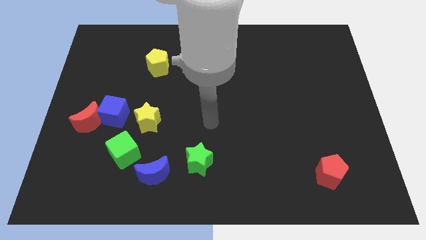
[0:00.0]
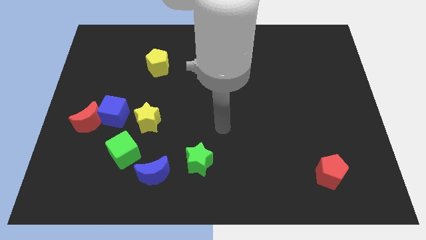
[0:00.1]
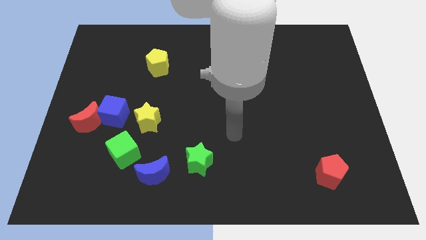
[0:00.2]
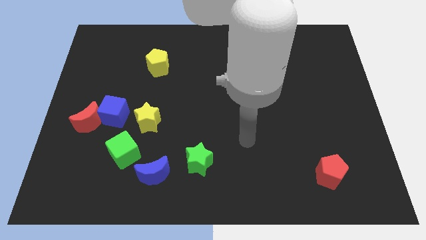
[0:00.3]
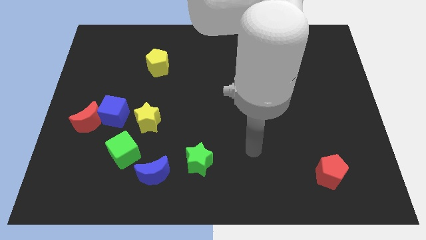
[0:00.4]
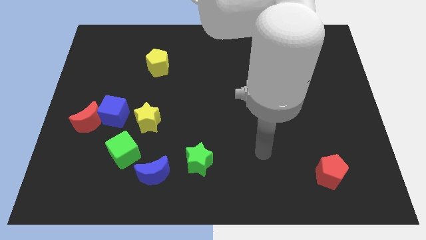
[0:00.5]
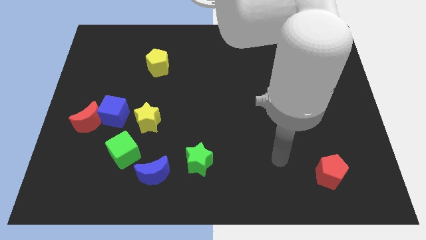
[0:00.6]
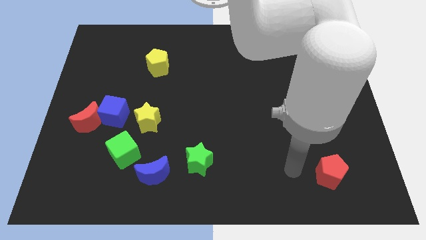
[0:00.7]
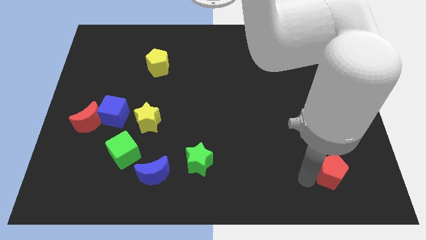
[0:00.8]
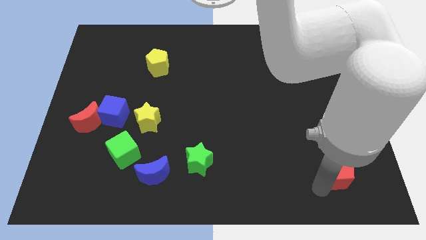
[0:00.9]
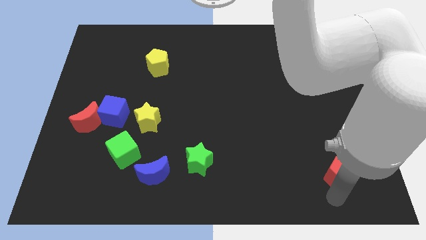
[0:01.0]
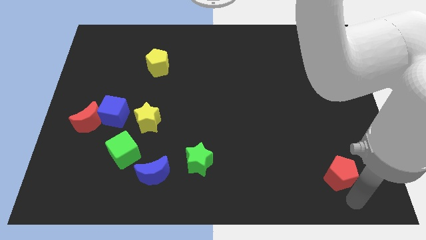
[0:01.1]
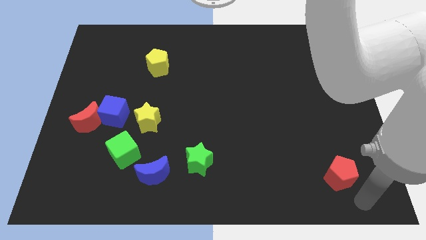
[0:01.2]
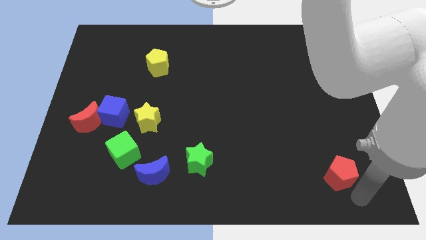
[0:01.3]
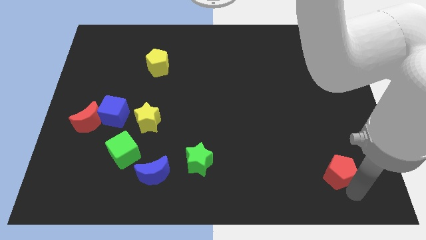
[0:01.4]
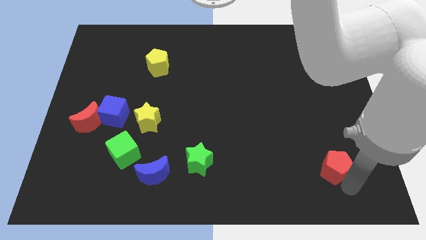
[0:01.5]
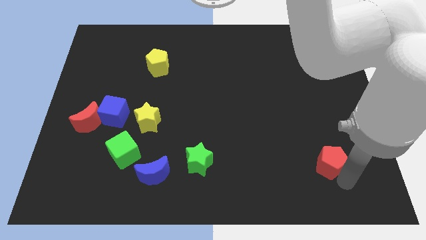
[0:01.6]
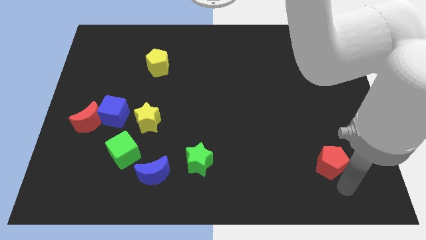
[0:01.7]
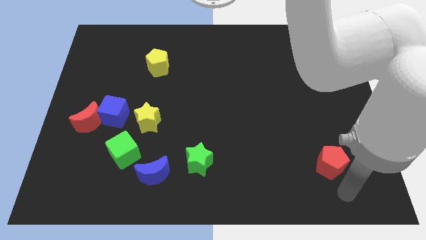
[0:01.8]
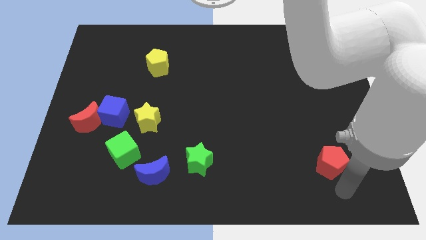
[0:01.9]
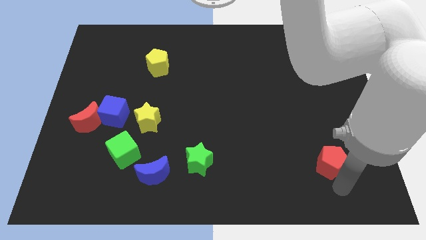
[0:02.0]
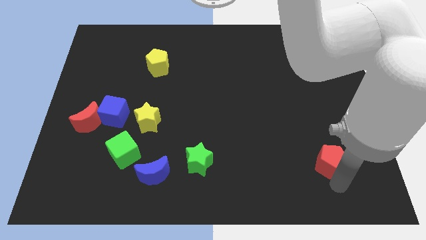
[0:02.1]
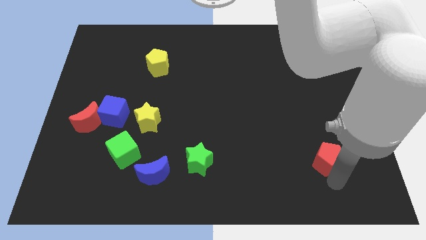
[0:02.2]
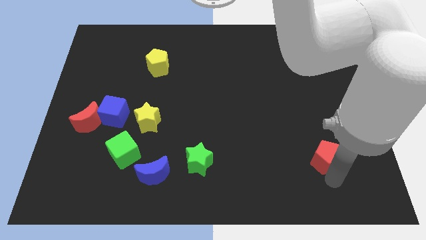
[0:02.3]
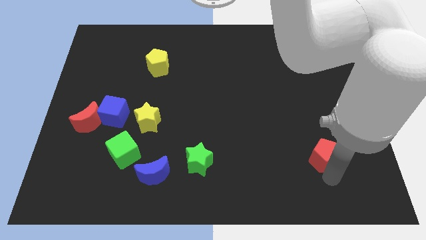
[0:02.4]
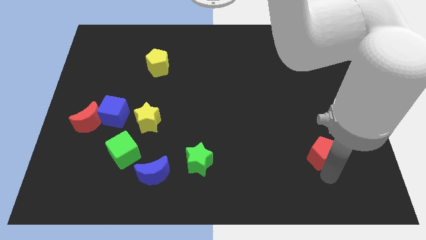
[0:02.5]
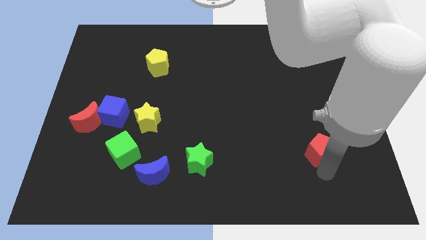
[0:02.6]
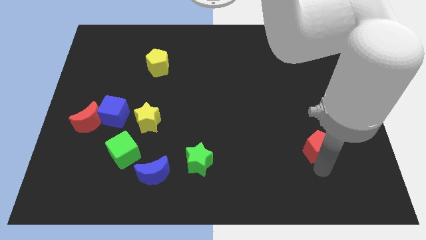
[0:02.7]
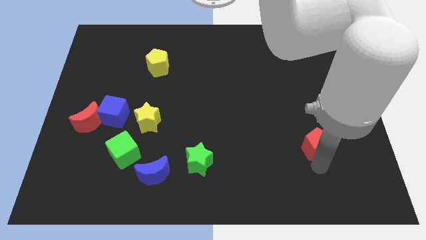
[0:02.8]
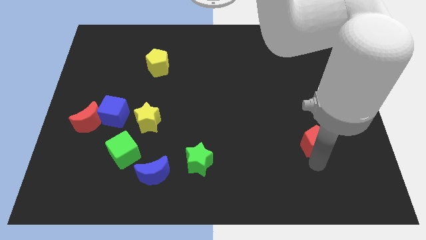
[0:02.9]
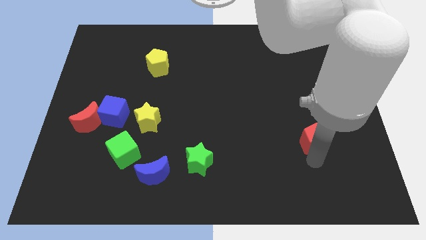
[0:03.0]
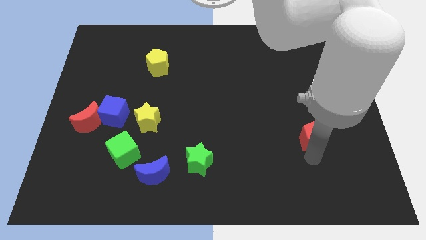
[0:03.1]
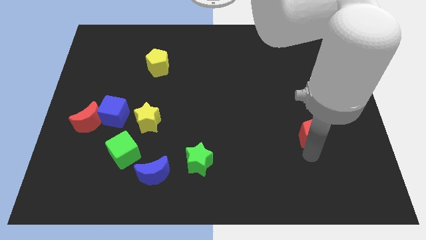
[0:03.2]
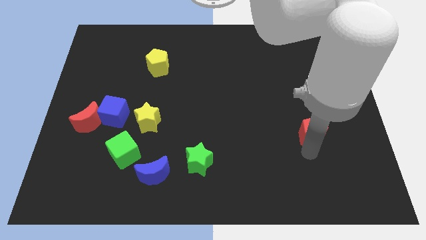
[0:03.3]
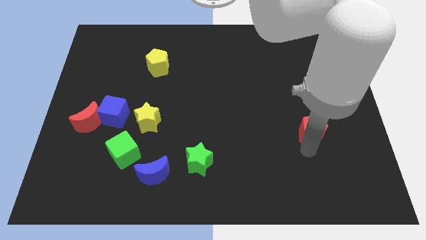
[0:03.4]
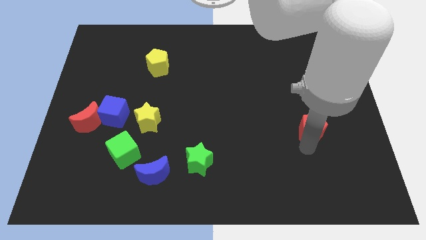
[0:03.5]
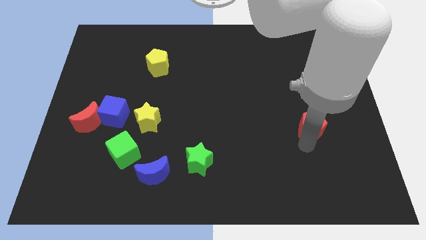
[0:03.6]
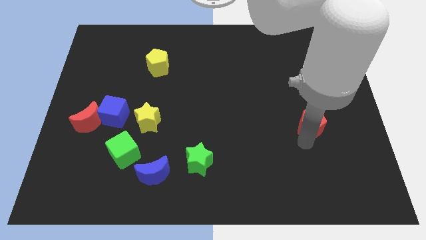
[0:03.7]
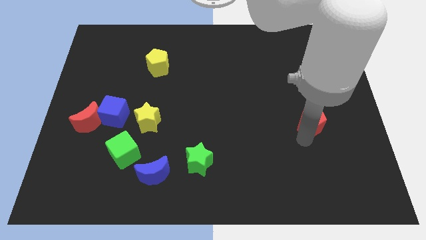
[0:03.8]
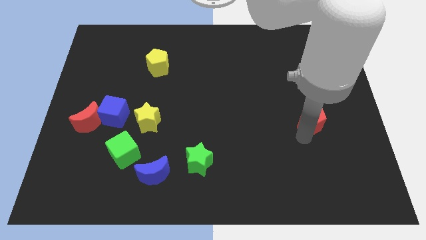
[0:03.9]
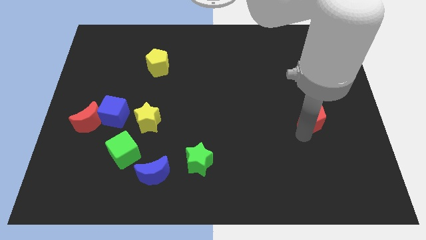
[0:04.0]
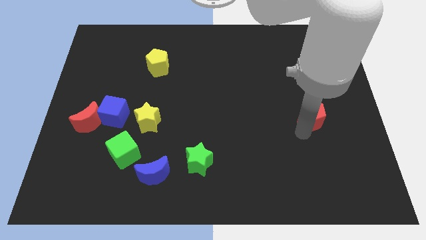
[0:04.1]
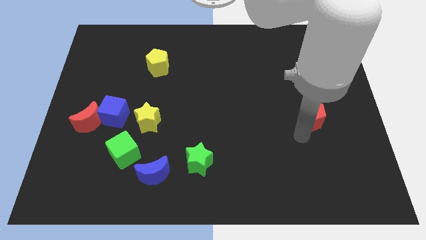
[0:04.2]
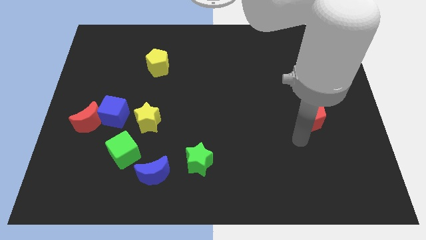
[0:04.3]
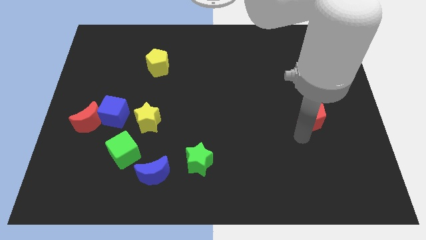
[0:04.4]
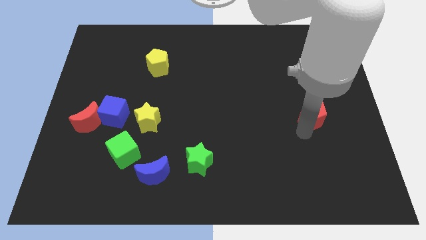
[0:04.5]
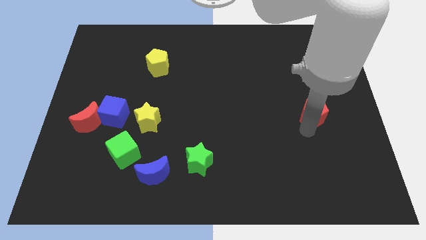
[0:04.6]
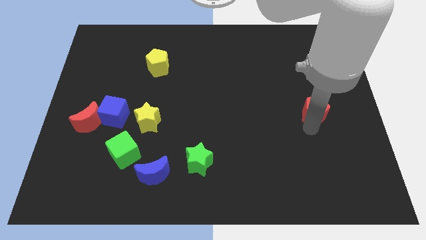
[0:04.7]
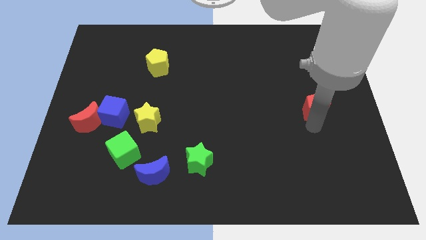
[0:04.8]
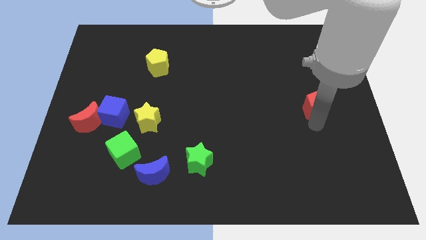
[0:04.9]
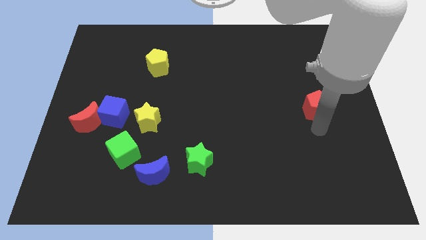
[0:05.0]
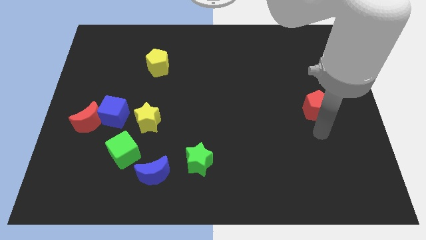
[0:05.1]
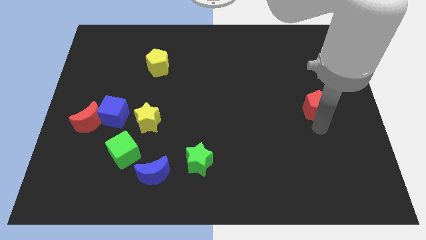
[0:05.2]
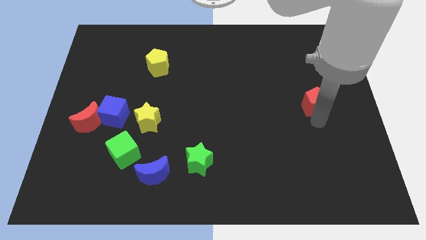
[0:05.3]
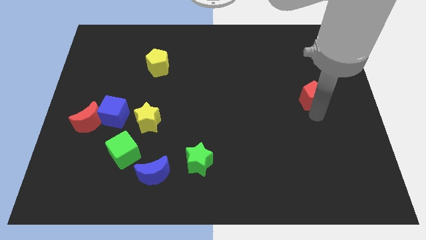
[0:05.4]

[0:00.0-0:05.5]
slide the red pentagon upwards

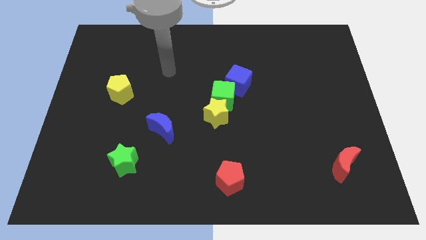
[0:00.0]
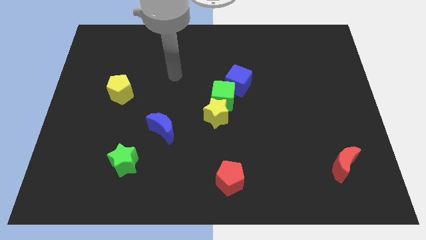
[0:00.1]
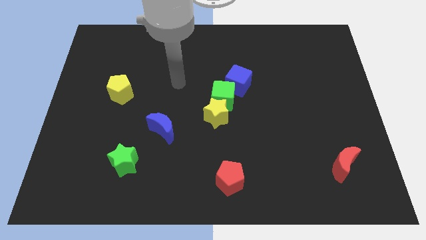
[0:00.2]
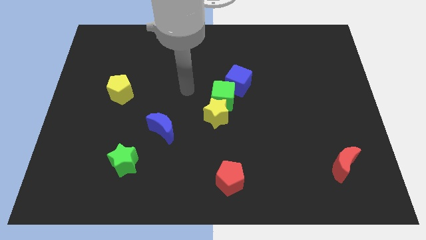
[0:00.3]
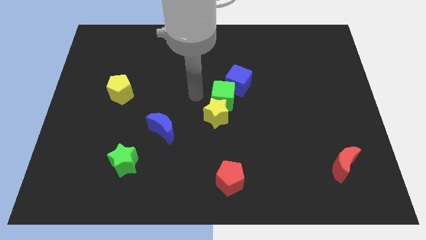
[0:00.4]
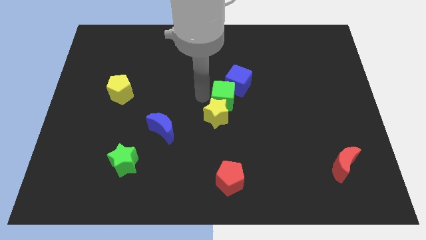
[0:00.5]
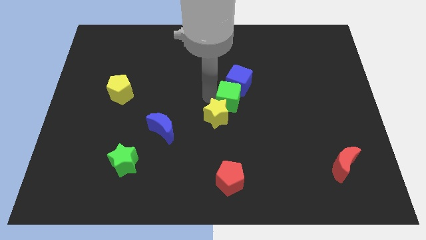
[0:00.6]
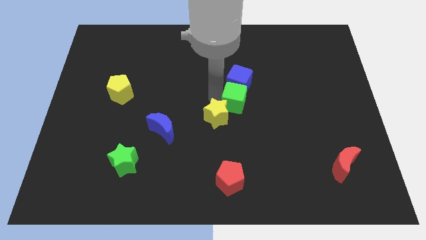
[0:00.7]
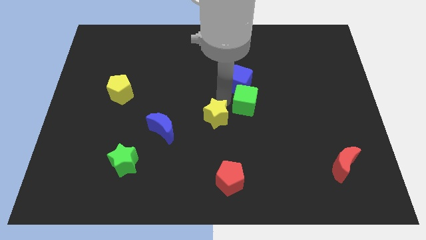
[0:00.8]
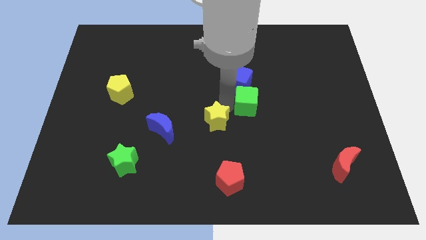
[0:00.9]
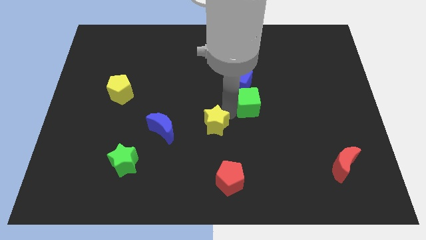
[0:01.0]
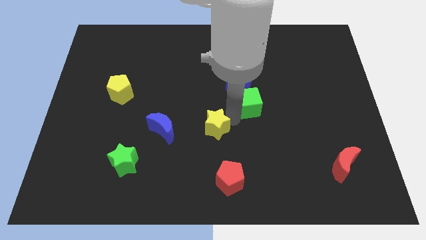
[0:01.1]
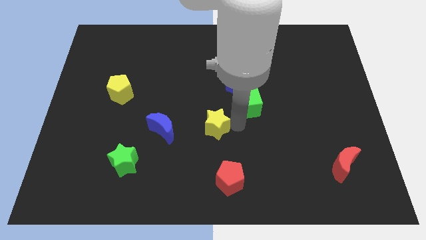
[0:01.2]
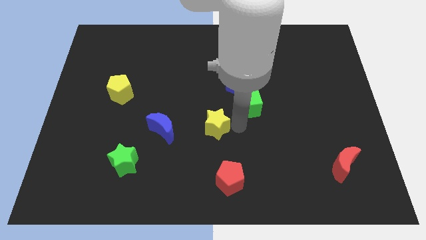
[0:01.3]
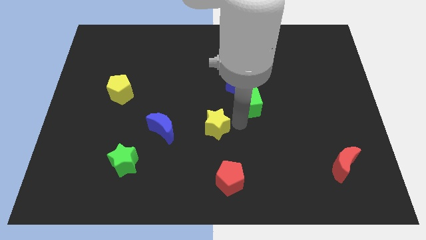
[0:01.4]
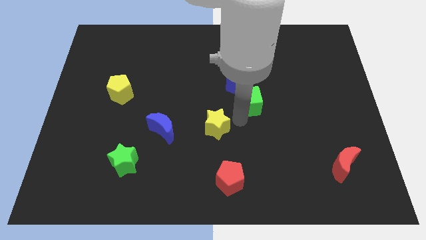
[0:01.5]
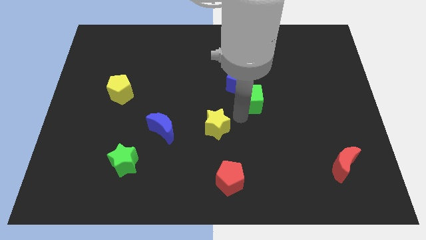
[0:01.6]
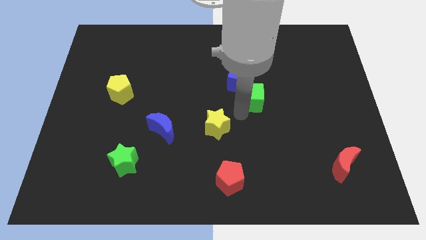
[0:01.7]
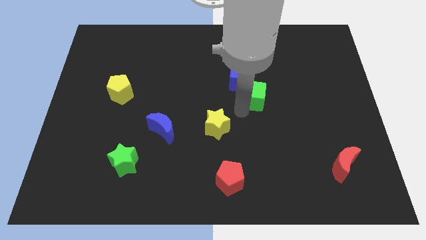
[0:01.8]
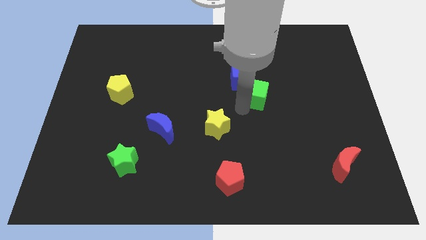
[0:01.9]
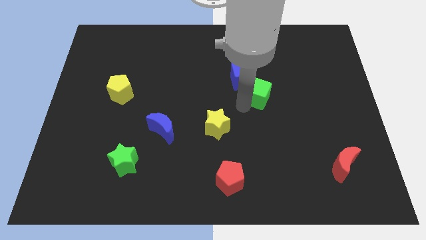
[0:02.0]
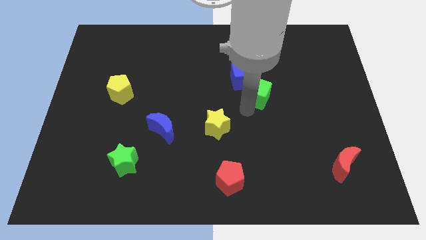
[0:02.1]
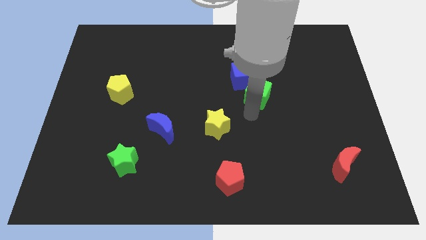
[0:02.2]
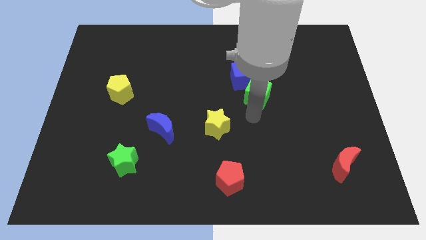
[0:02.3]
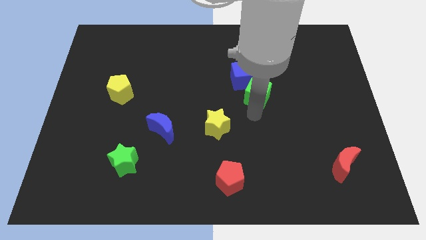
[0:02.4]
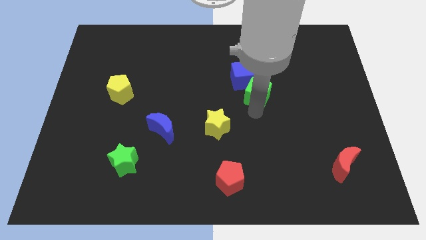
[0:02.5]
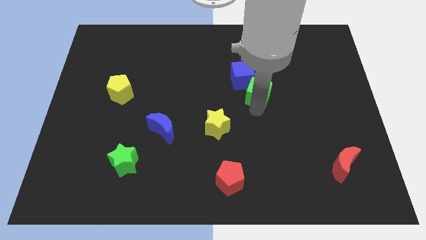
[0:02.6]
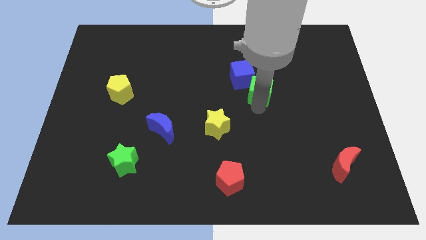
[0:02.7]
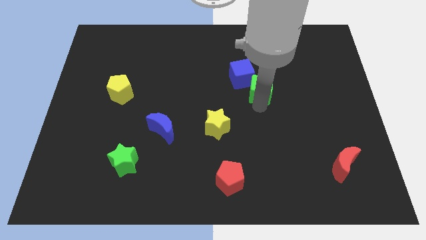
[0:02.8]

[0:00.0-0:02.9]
move the green cube a little bit diagonally up and to the right

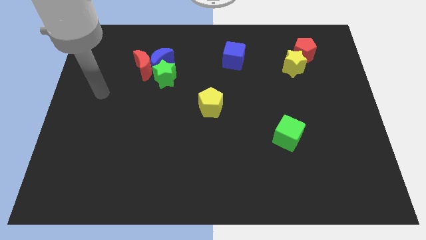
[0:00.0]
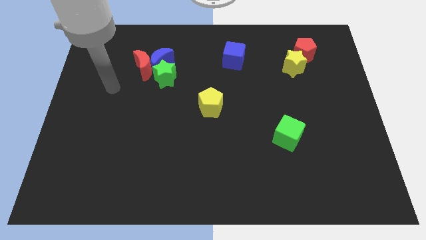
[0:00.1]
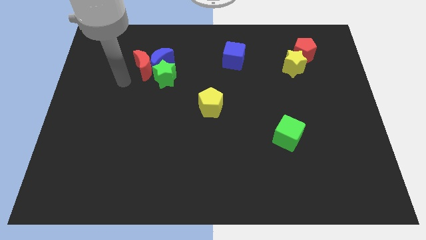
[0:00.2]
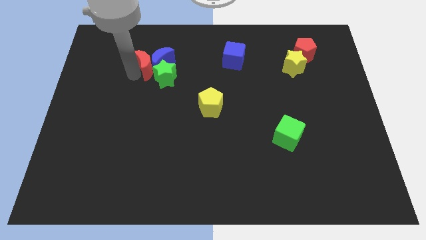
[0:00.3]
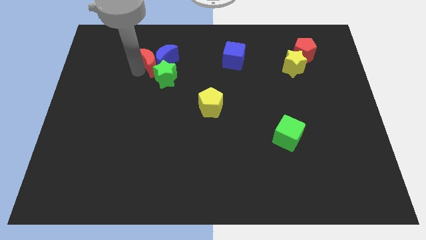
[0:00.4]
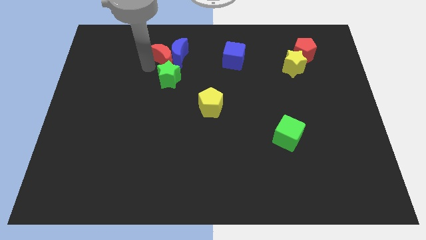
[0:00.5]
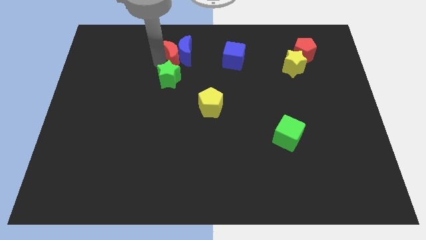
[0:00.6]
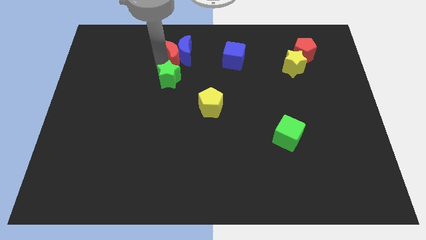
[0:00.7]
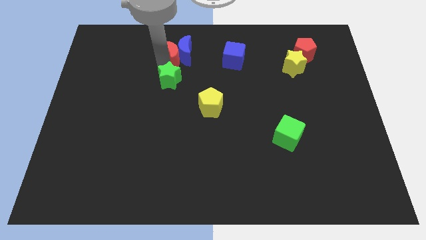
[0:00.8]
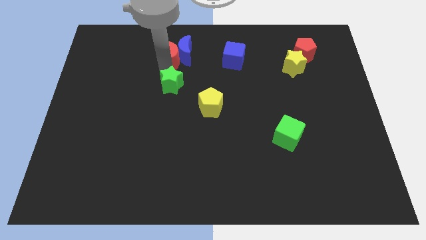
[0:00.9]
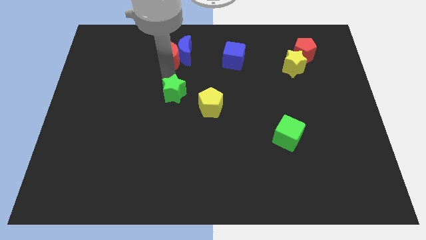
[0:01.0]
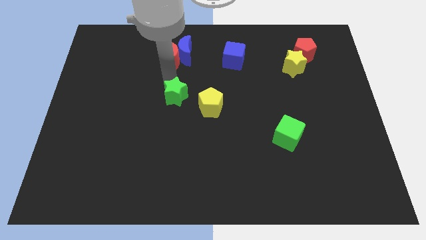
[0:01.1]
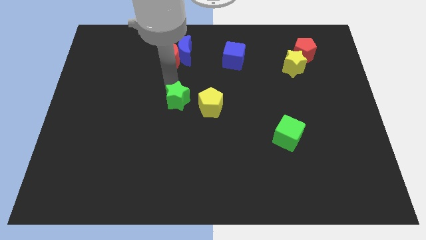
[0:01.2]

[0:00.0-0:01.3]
slide the green star diagonally downwards and right a little bit
